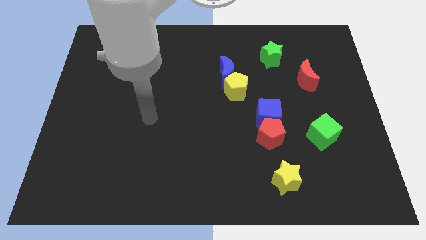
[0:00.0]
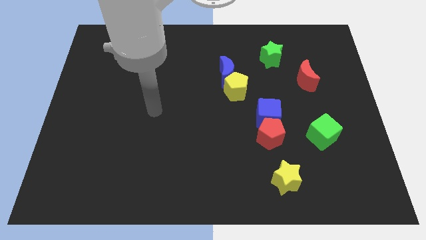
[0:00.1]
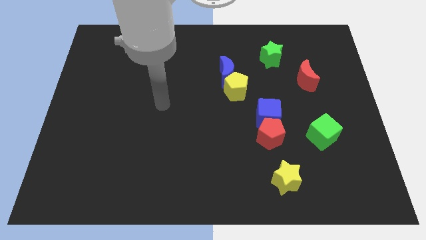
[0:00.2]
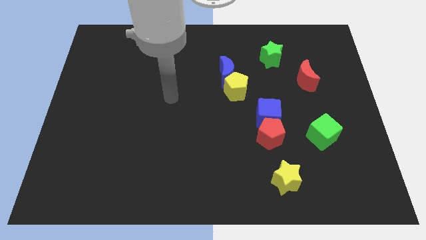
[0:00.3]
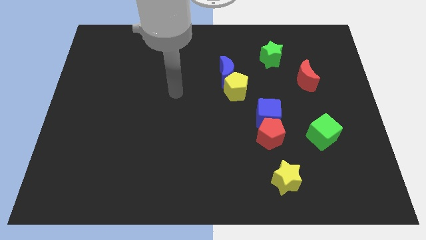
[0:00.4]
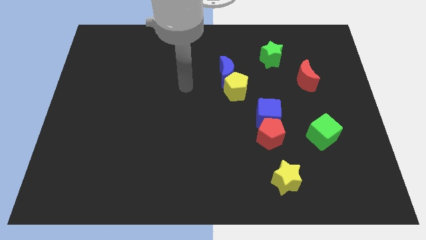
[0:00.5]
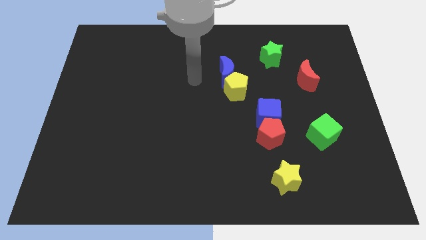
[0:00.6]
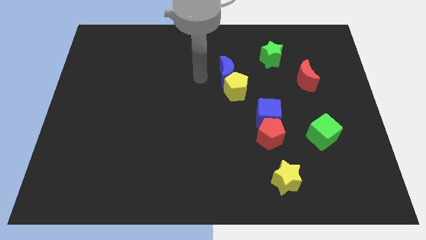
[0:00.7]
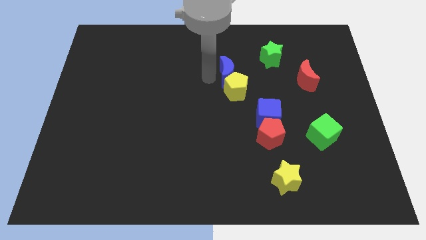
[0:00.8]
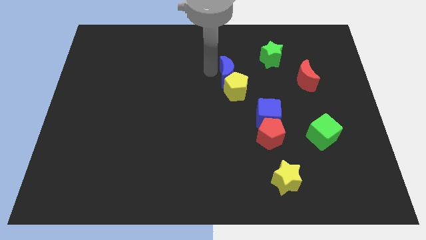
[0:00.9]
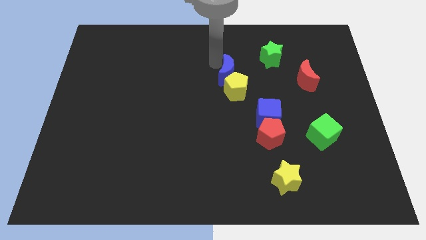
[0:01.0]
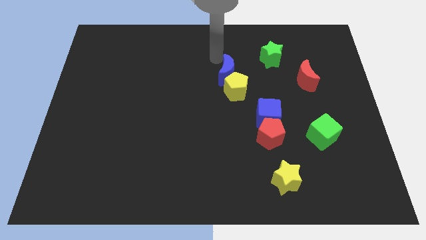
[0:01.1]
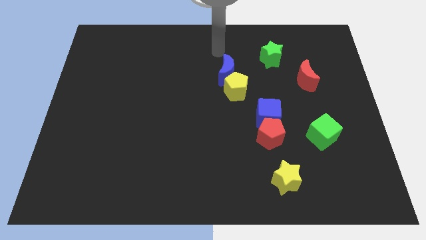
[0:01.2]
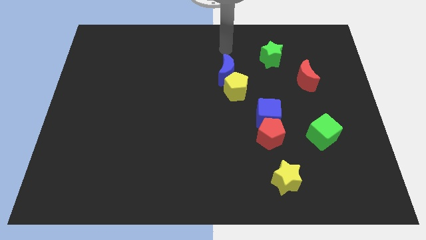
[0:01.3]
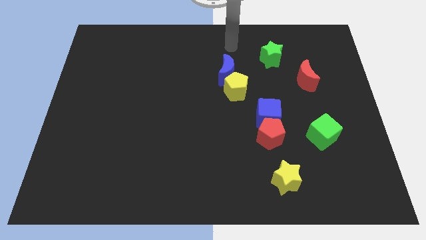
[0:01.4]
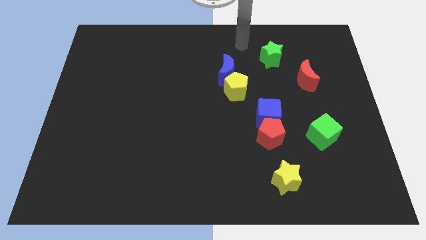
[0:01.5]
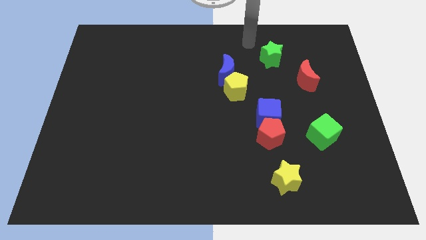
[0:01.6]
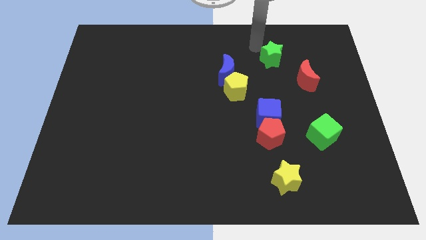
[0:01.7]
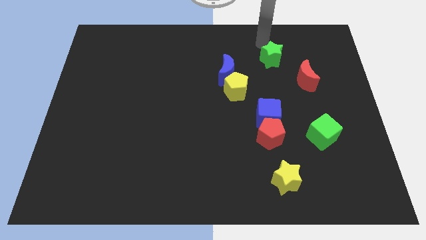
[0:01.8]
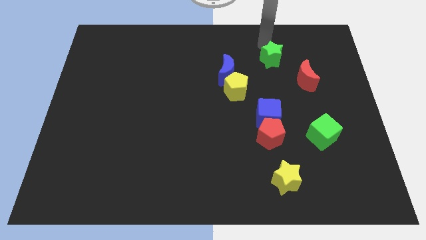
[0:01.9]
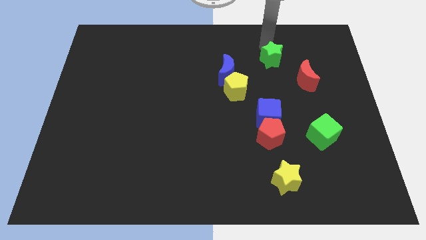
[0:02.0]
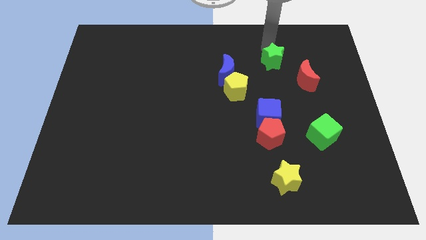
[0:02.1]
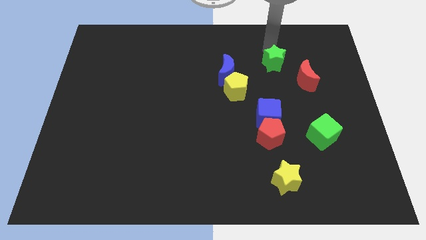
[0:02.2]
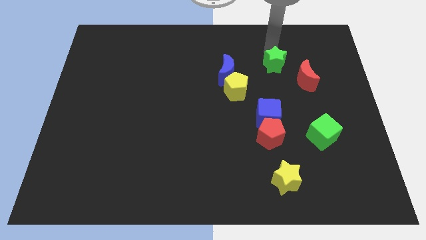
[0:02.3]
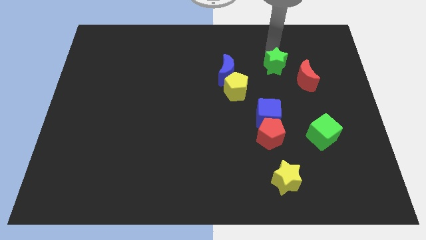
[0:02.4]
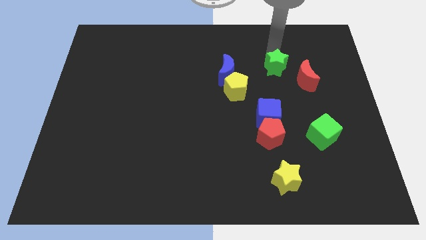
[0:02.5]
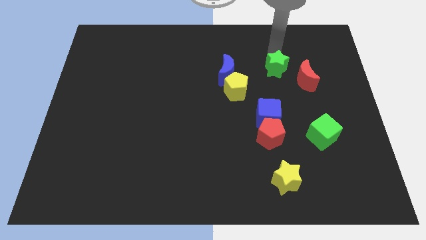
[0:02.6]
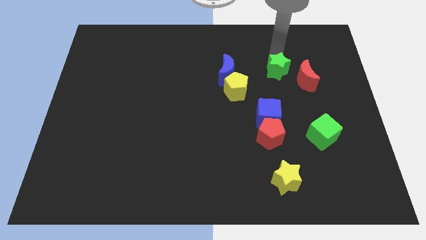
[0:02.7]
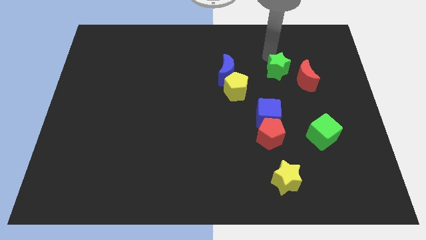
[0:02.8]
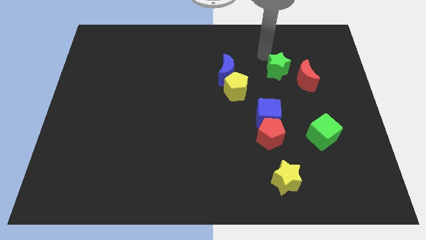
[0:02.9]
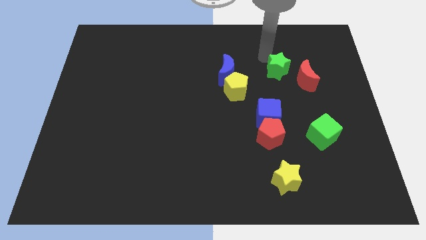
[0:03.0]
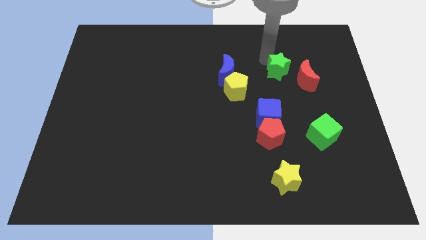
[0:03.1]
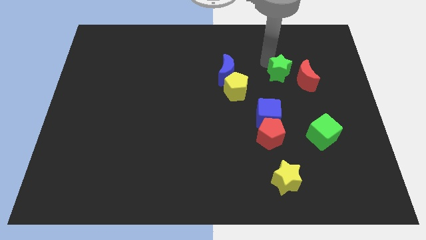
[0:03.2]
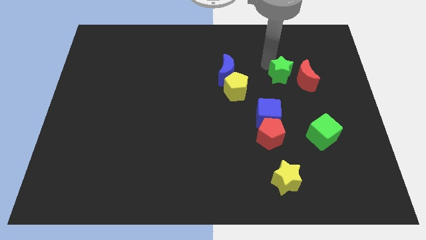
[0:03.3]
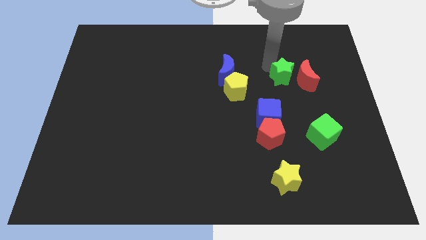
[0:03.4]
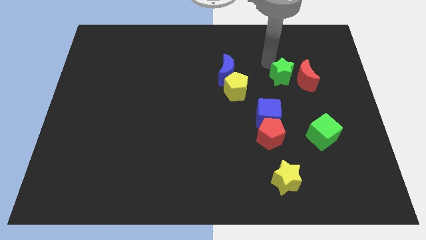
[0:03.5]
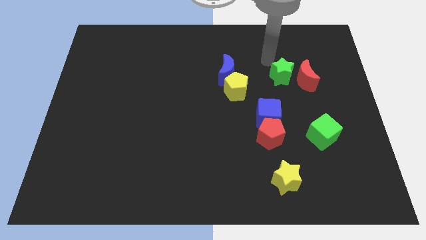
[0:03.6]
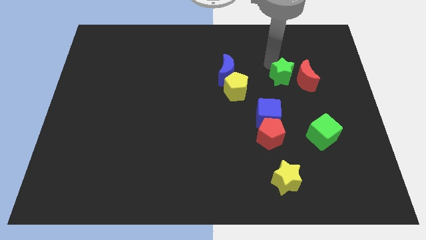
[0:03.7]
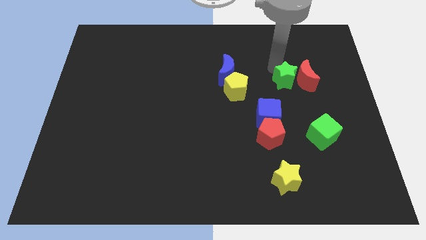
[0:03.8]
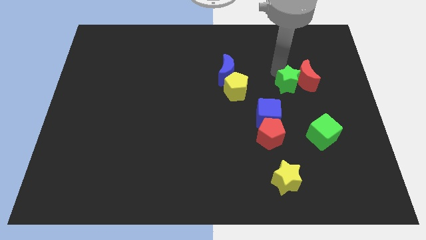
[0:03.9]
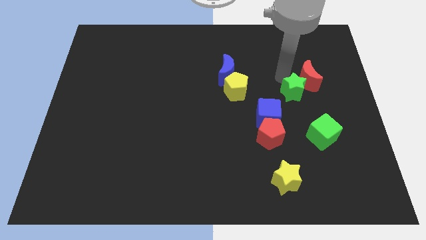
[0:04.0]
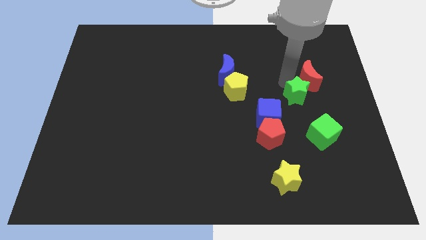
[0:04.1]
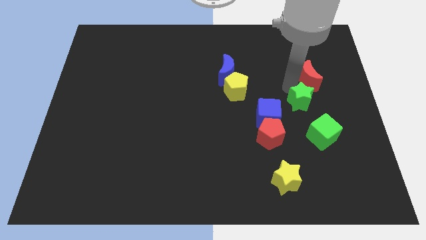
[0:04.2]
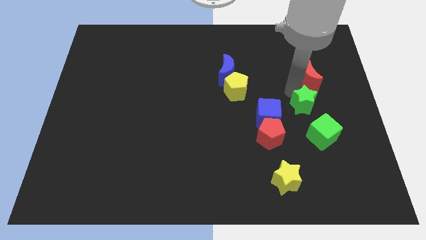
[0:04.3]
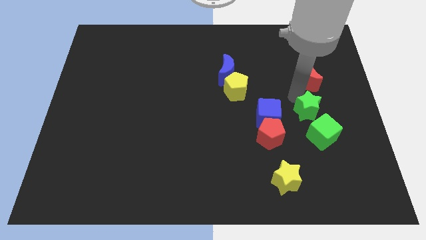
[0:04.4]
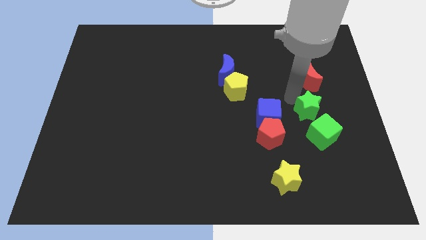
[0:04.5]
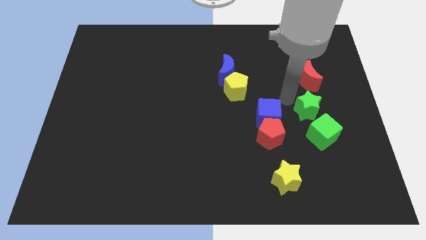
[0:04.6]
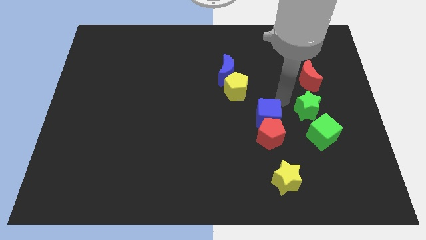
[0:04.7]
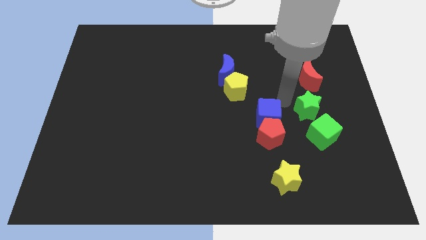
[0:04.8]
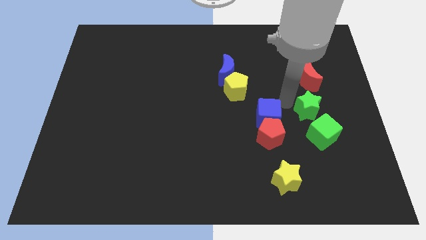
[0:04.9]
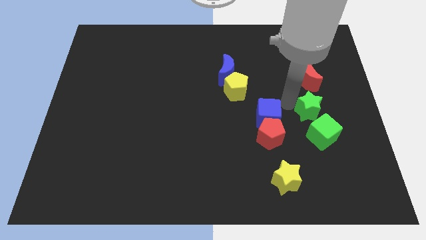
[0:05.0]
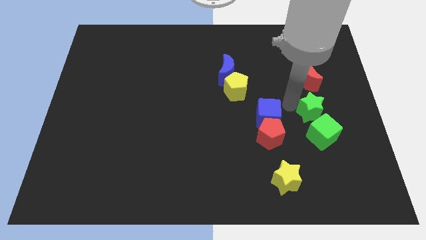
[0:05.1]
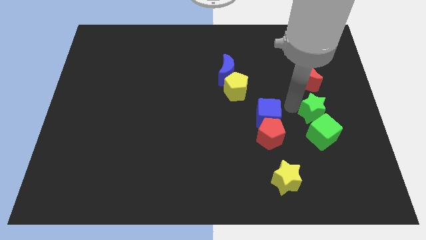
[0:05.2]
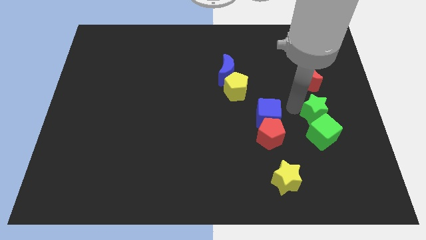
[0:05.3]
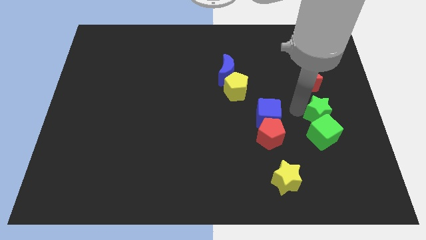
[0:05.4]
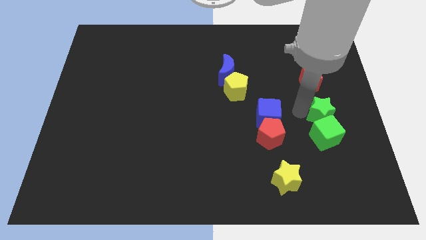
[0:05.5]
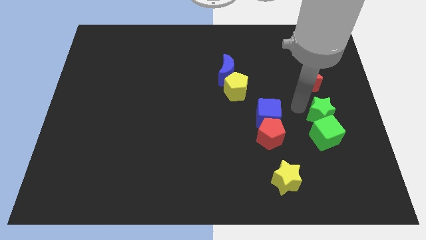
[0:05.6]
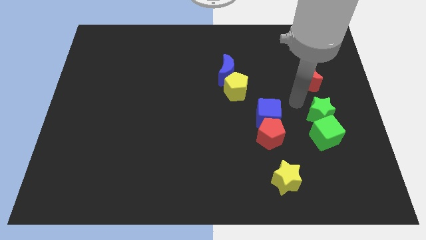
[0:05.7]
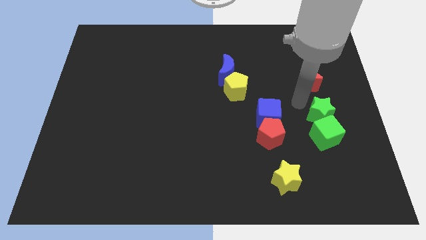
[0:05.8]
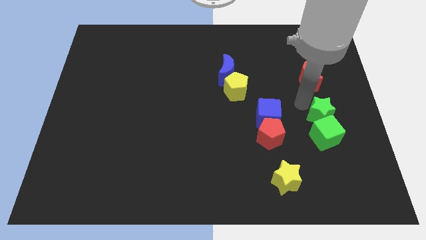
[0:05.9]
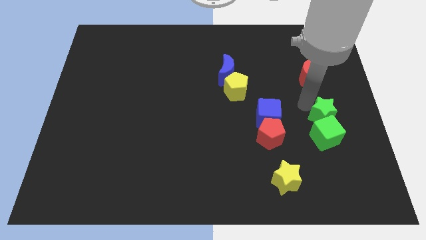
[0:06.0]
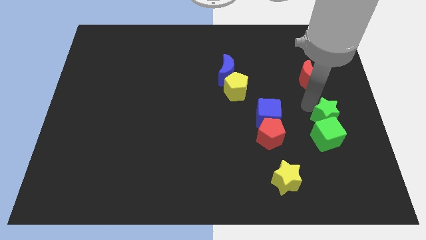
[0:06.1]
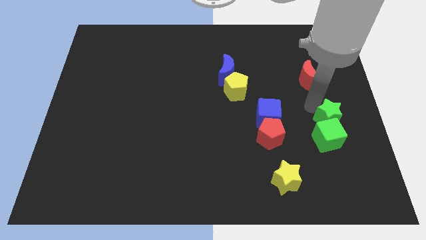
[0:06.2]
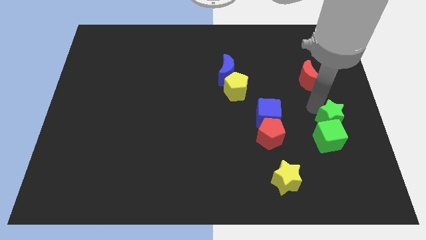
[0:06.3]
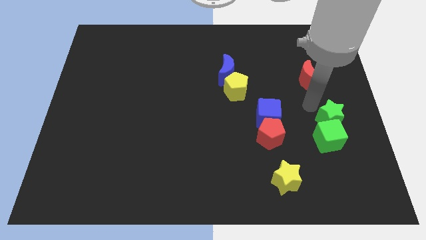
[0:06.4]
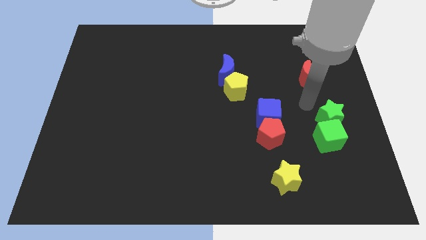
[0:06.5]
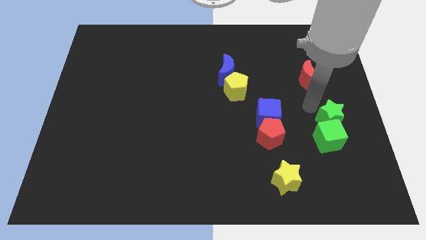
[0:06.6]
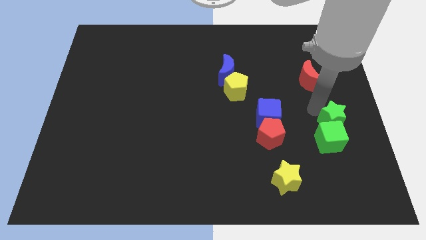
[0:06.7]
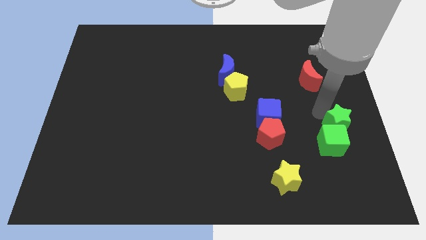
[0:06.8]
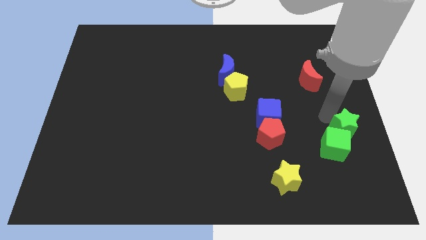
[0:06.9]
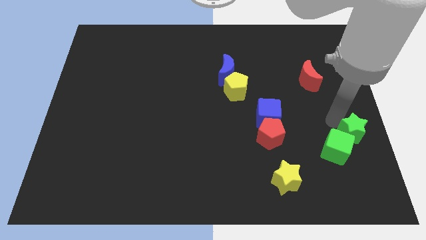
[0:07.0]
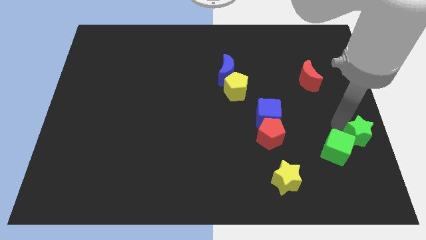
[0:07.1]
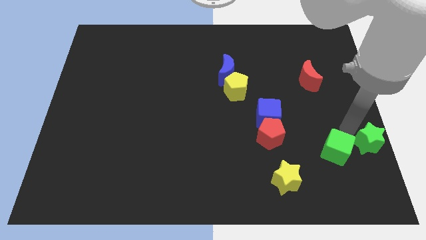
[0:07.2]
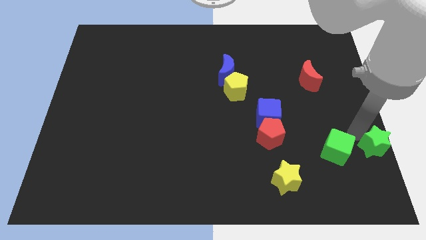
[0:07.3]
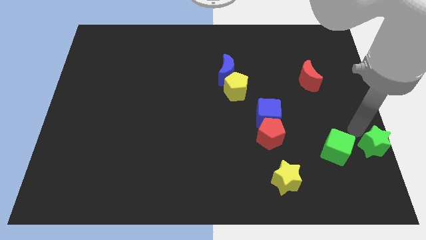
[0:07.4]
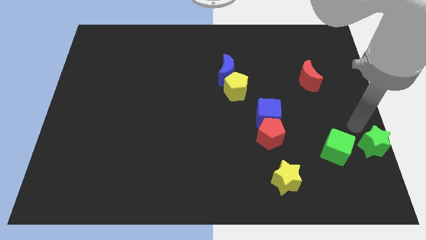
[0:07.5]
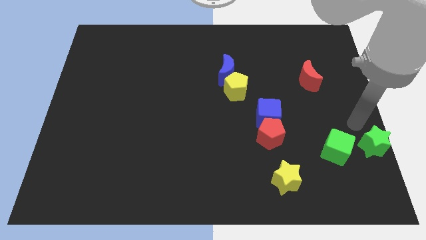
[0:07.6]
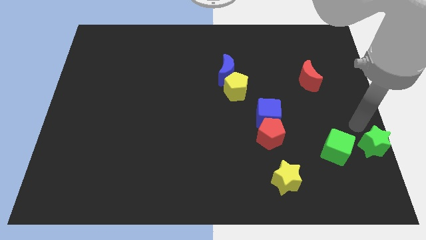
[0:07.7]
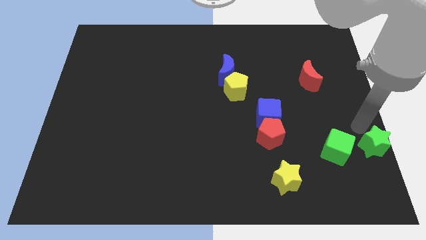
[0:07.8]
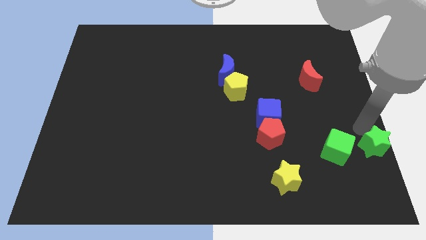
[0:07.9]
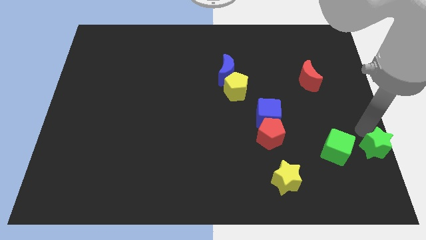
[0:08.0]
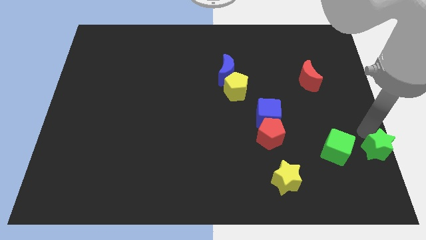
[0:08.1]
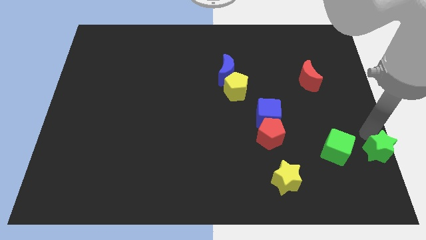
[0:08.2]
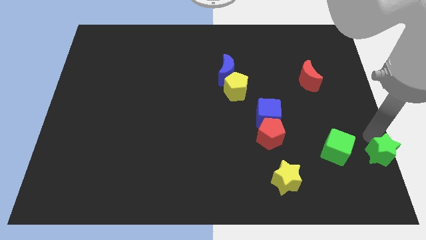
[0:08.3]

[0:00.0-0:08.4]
put the green star to the bottom right
